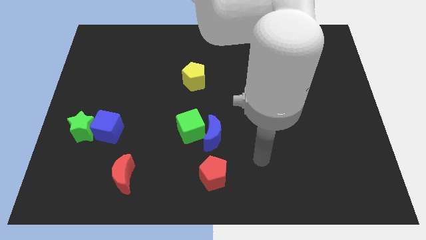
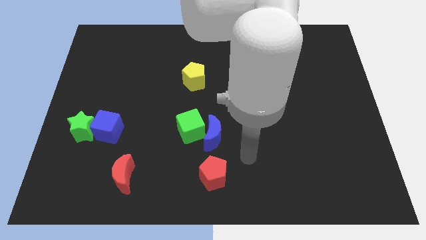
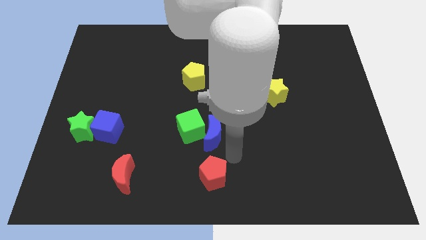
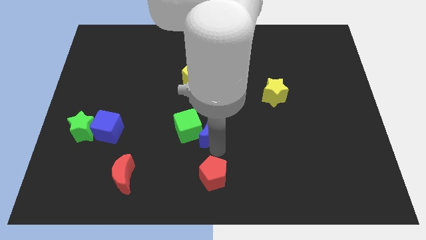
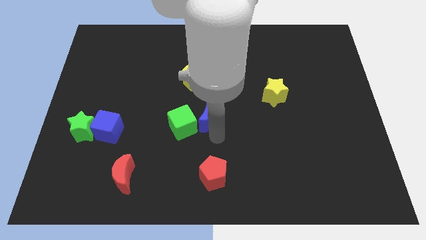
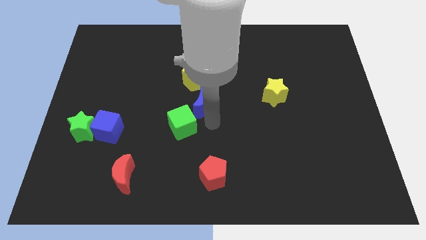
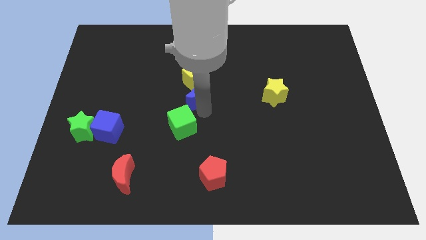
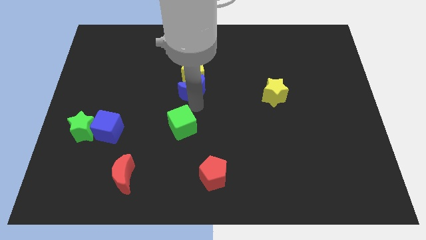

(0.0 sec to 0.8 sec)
pull the green cube apart from the blue moon

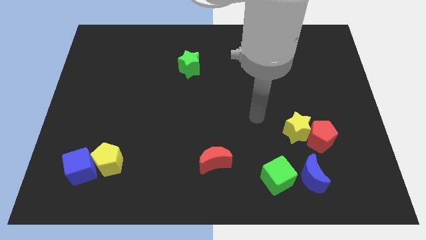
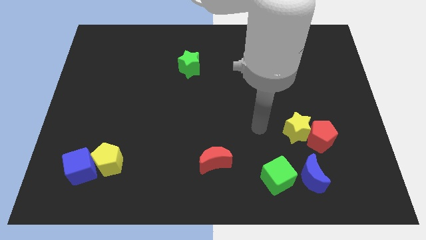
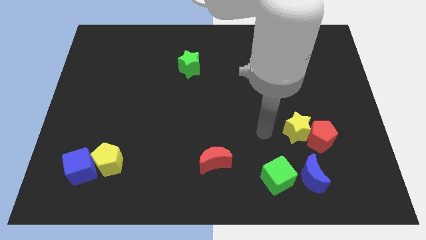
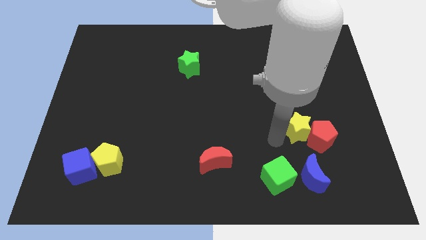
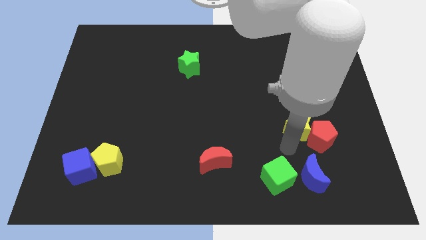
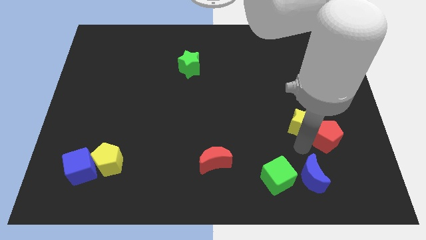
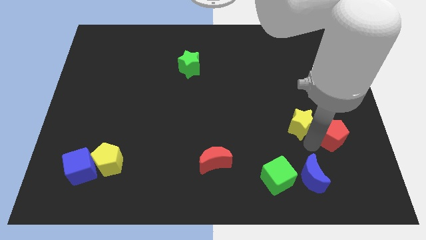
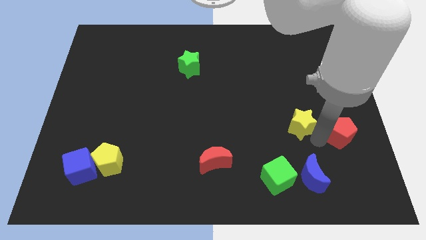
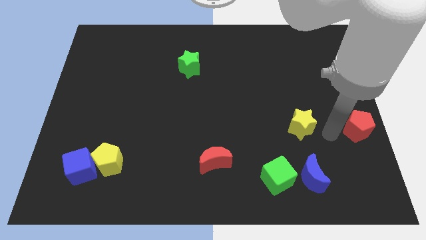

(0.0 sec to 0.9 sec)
separate the yellow star from the red pentagon

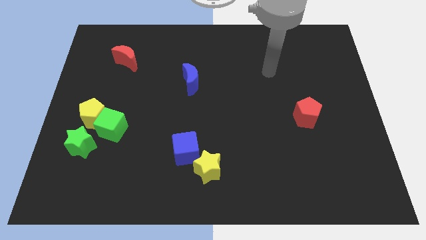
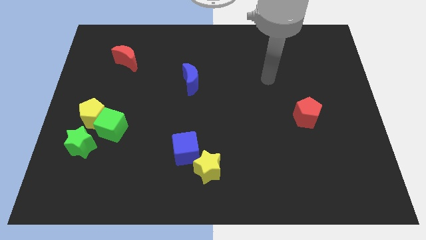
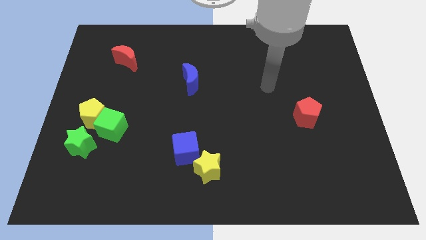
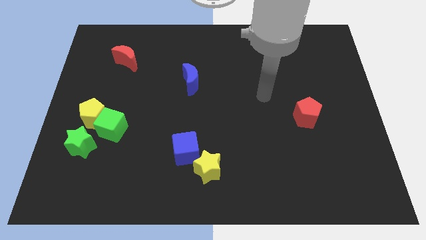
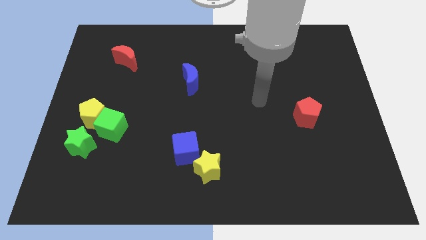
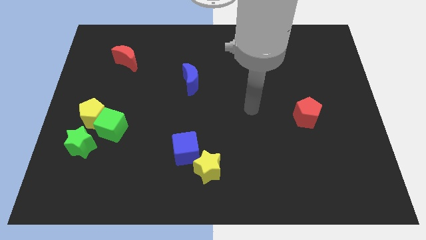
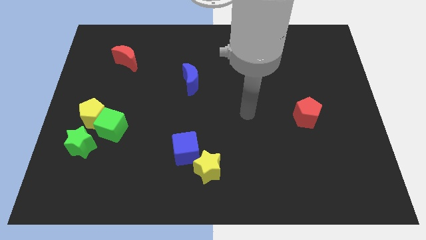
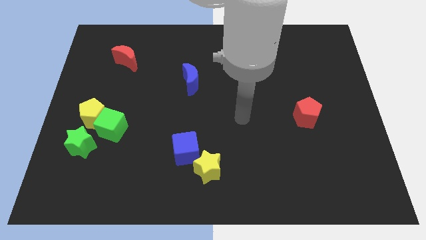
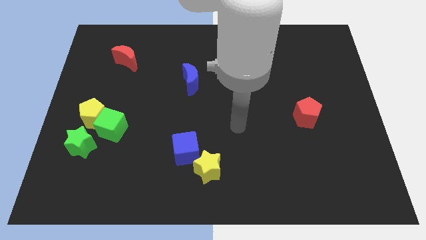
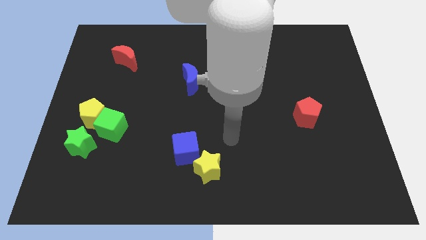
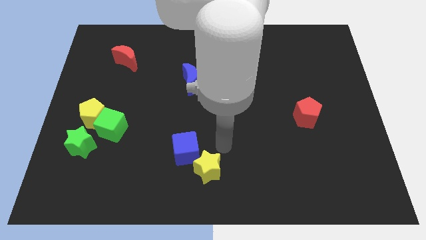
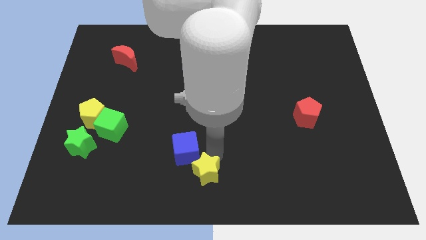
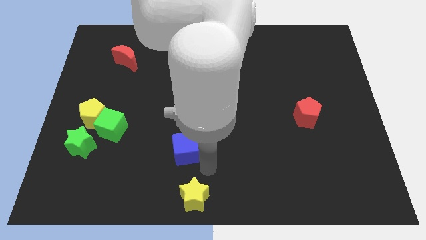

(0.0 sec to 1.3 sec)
separate the blue cube from the yellow star

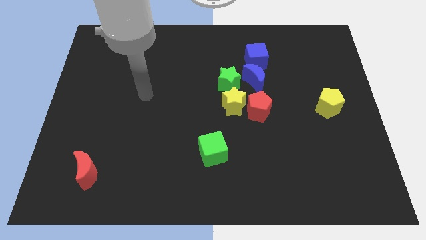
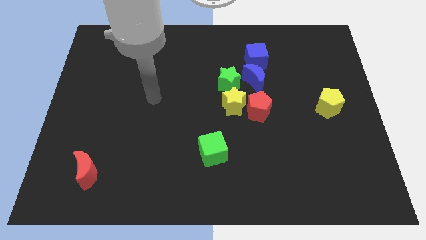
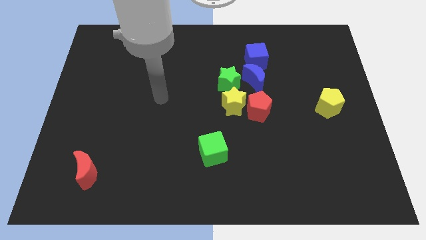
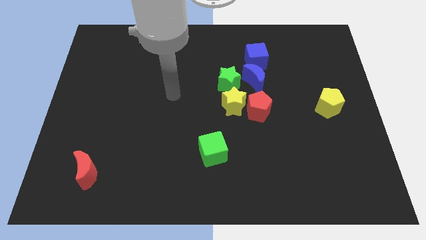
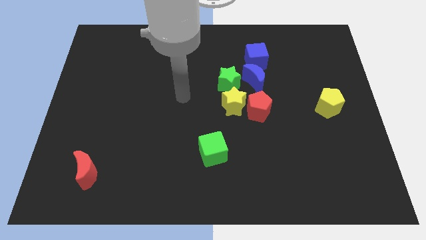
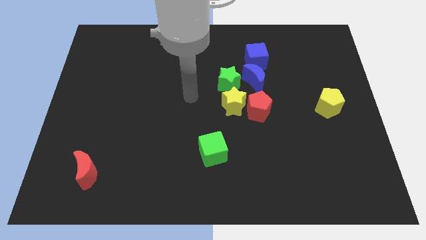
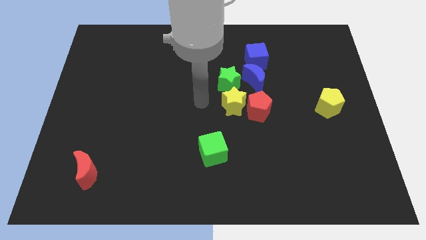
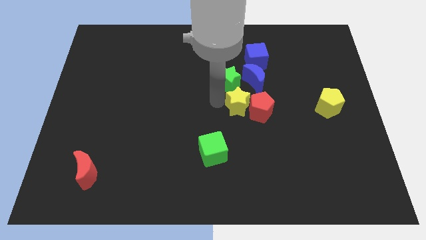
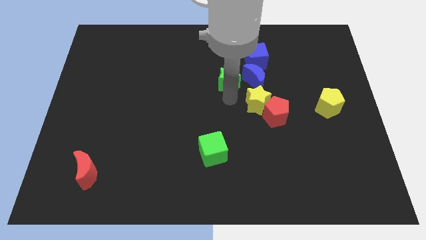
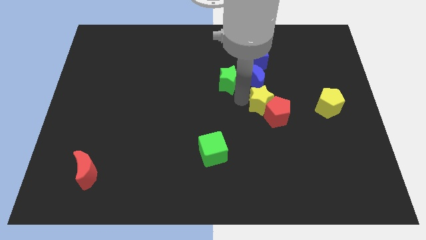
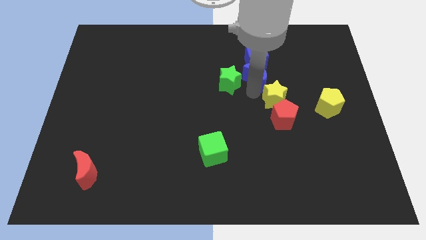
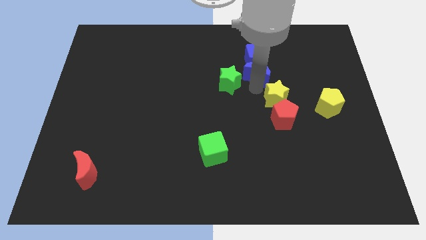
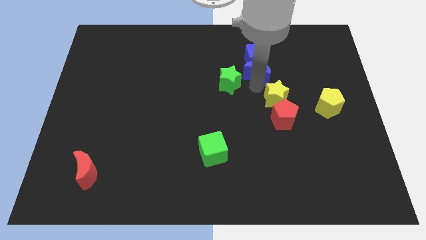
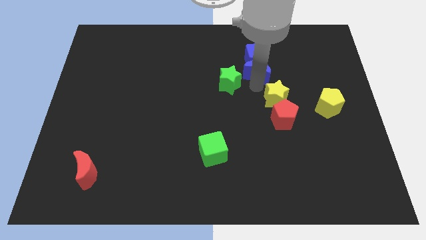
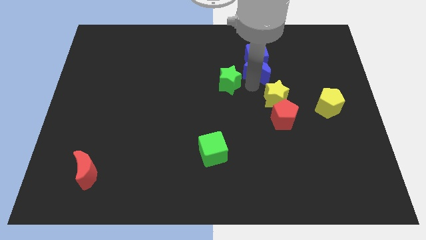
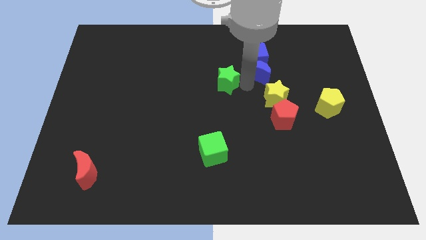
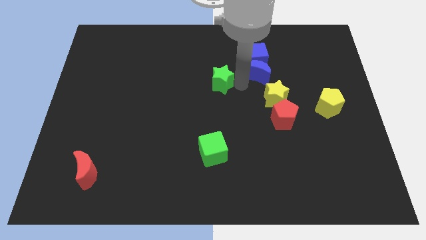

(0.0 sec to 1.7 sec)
move the green star away from the blue moon and yellow star

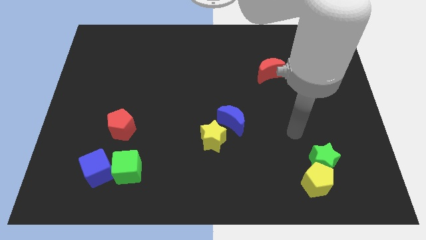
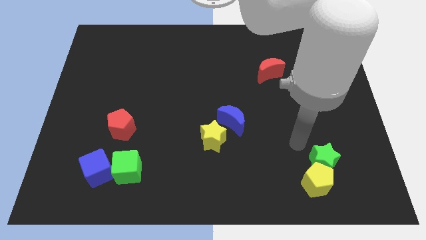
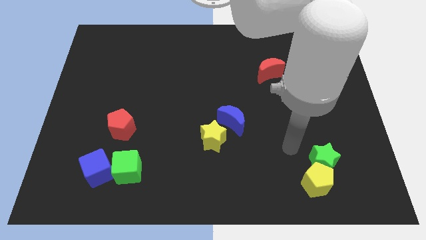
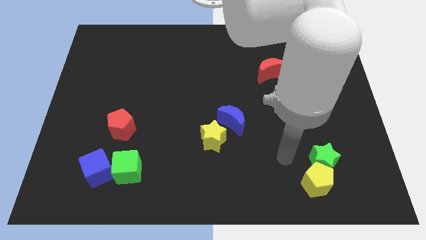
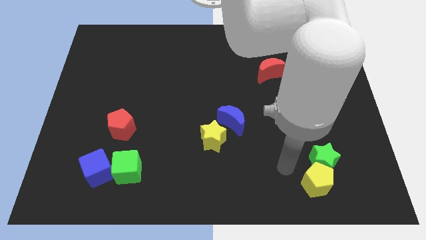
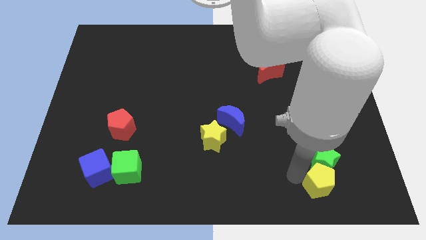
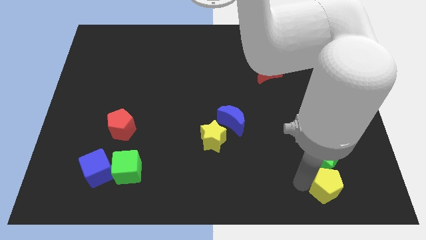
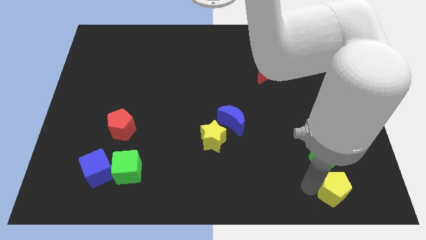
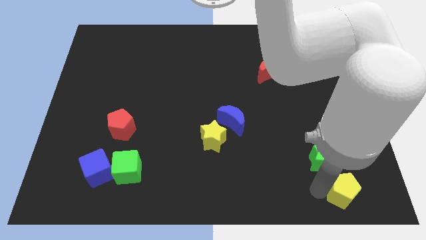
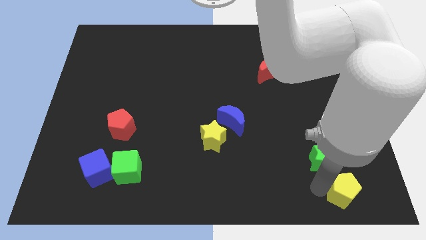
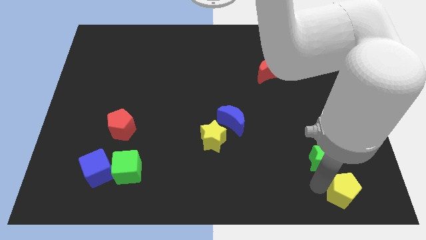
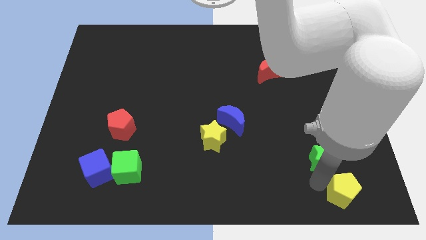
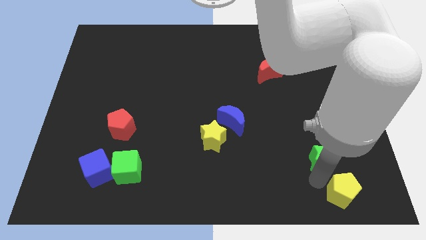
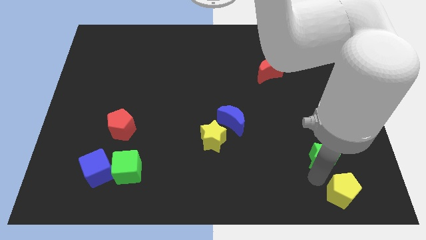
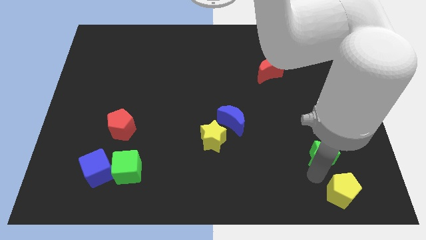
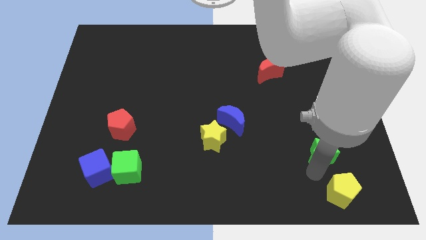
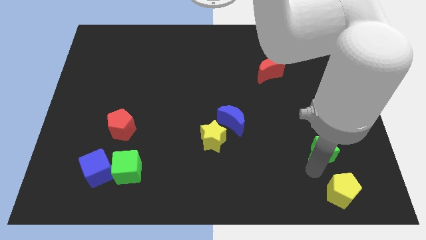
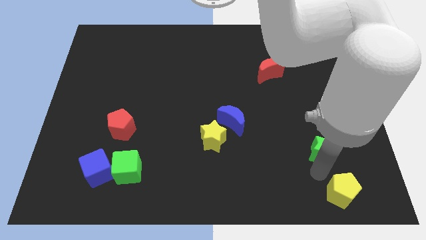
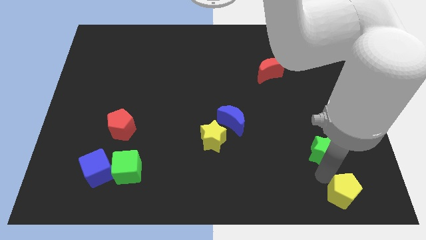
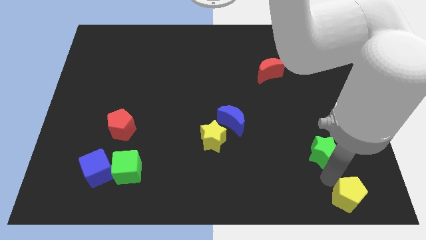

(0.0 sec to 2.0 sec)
pull the green star apart from the yellow pentagon

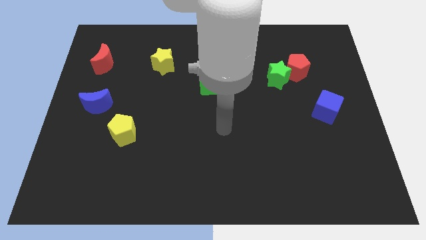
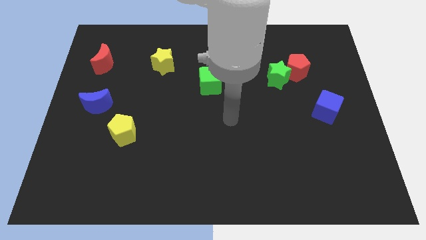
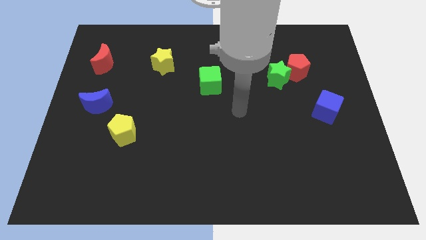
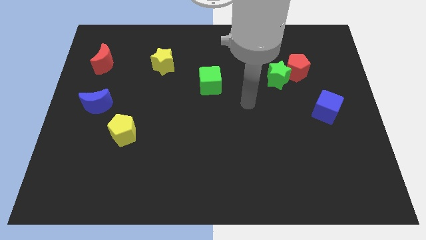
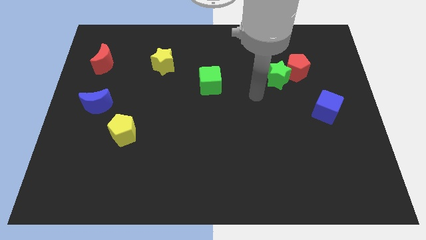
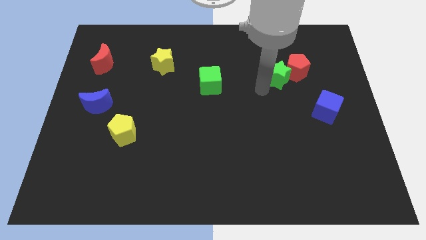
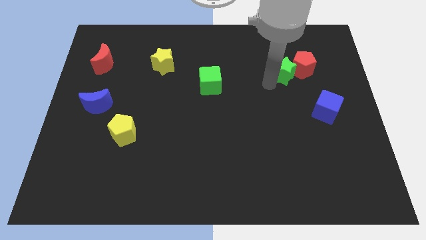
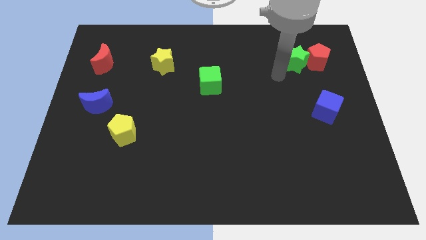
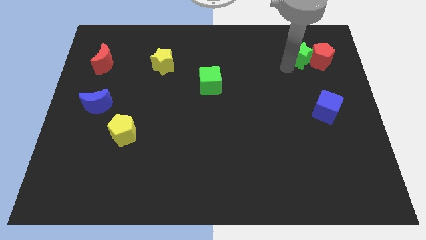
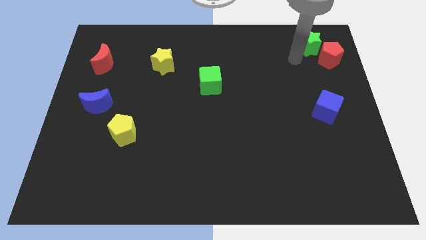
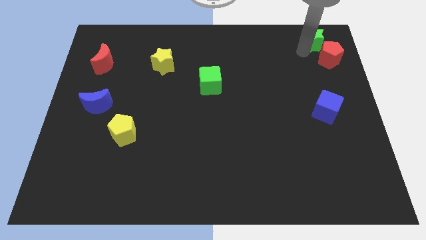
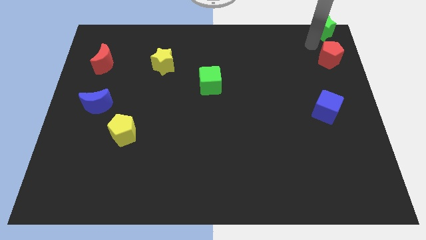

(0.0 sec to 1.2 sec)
pull the red pentagon apart from the green star

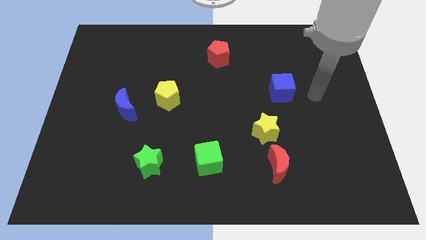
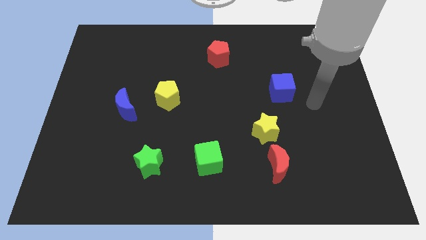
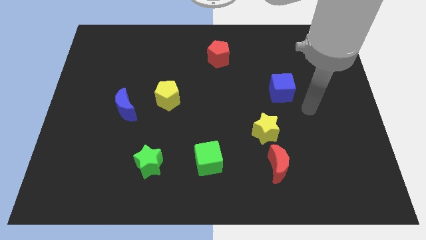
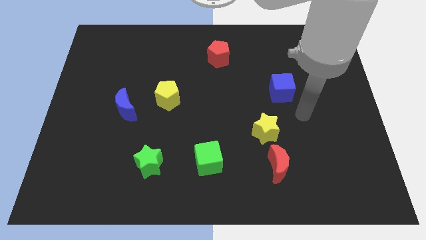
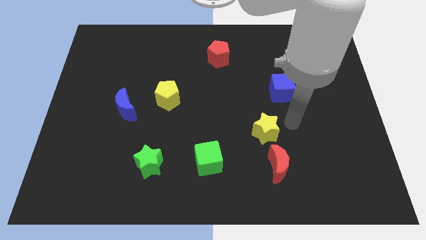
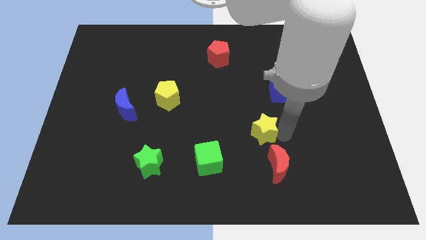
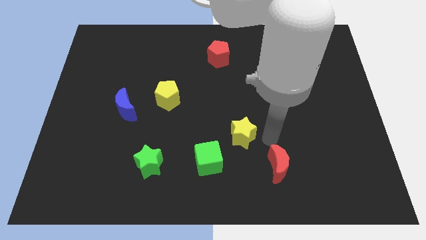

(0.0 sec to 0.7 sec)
move the red moon away from the yellow star

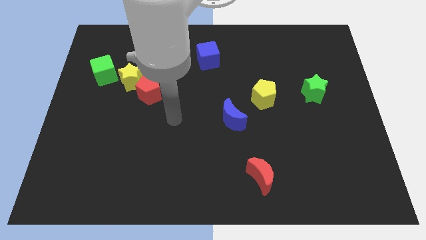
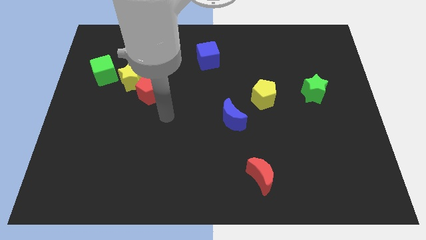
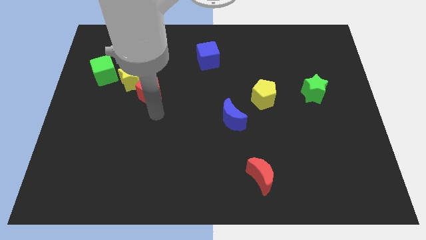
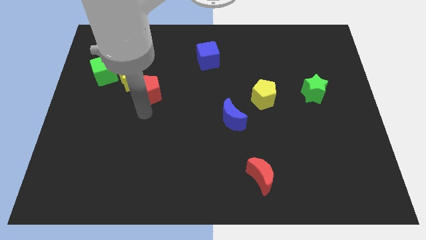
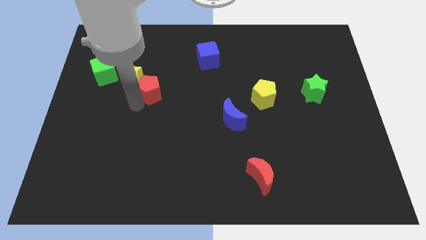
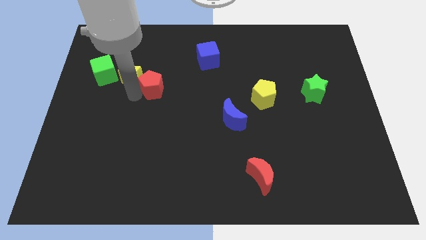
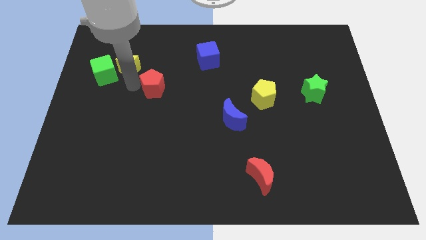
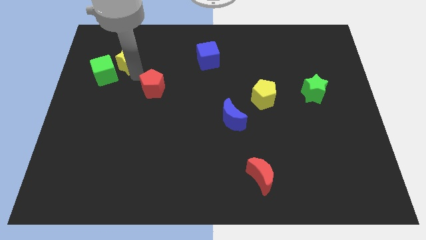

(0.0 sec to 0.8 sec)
move the red pentagon away from the yellow star
